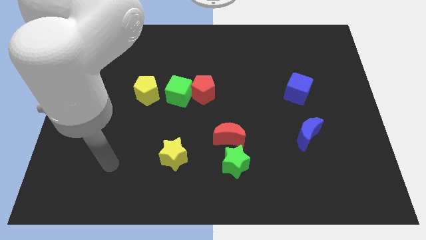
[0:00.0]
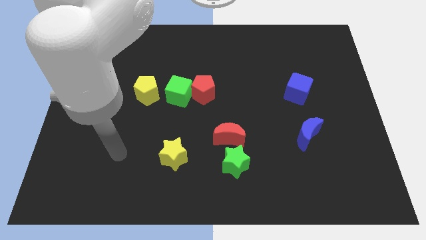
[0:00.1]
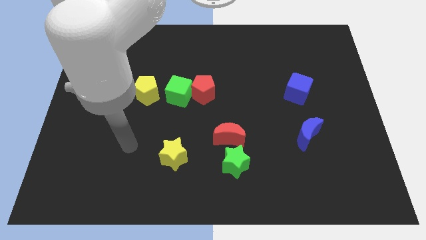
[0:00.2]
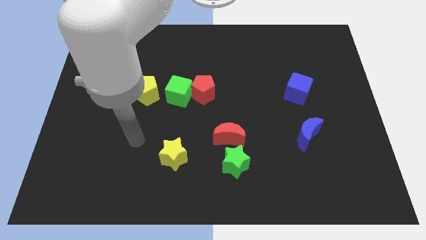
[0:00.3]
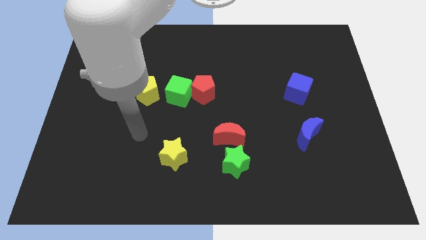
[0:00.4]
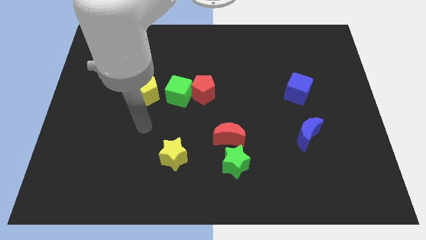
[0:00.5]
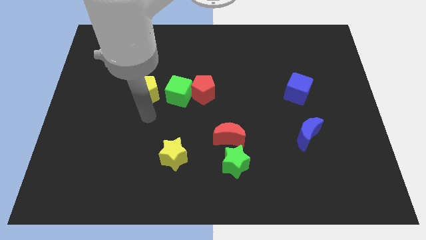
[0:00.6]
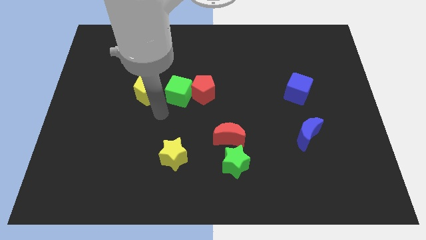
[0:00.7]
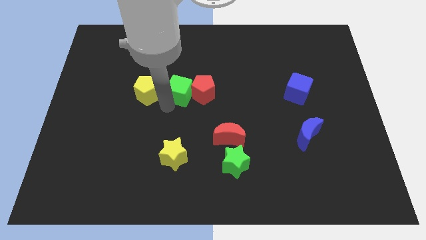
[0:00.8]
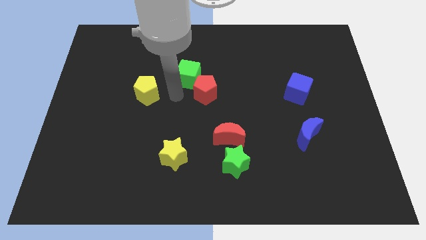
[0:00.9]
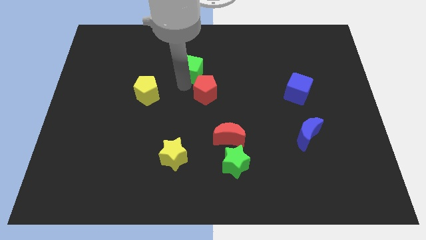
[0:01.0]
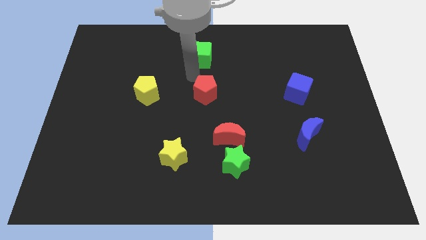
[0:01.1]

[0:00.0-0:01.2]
separate the red pentagon from the green cube

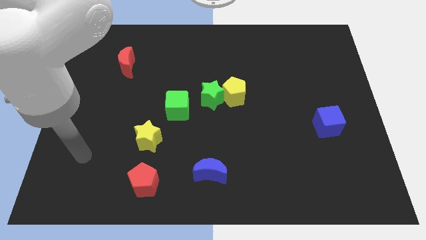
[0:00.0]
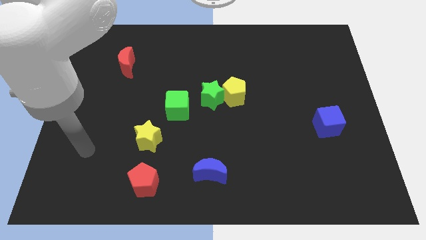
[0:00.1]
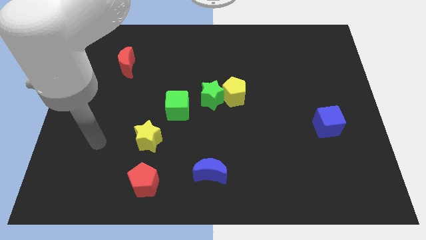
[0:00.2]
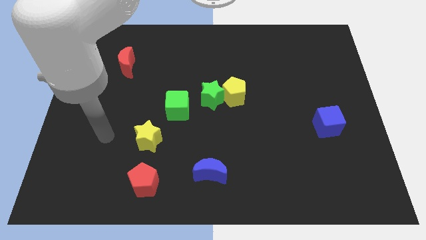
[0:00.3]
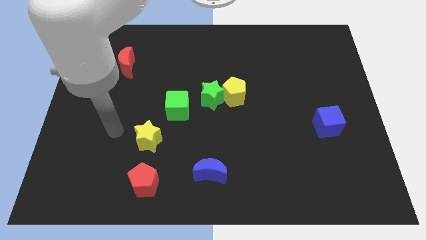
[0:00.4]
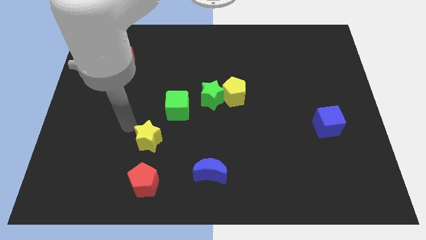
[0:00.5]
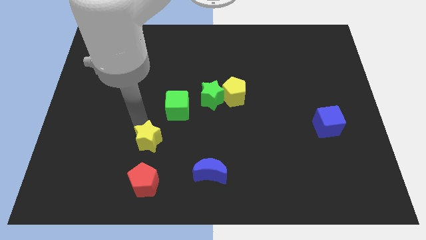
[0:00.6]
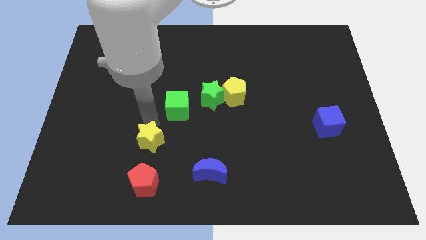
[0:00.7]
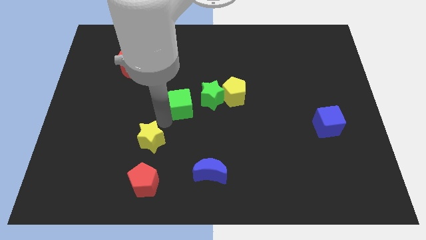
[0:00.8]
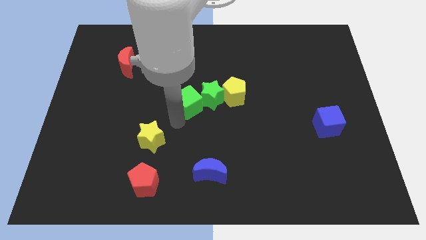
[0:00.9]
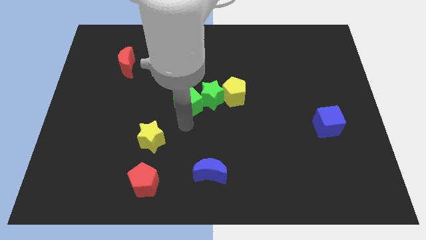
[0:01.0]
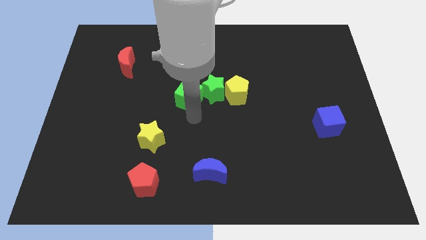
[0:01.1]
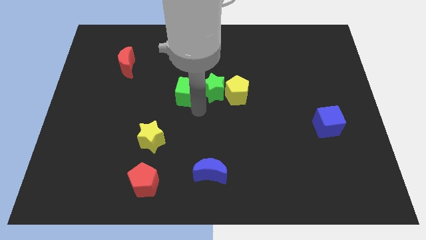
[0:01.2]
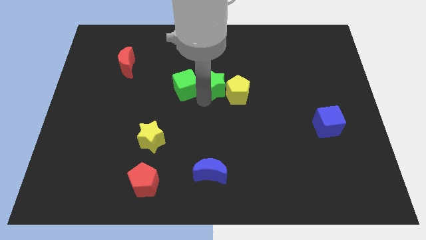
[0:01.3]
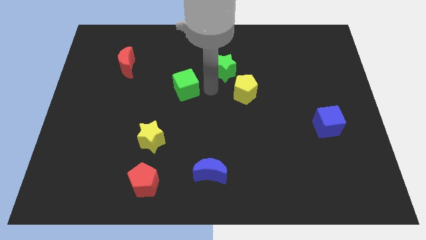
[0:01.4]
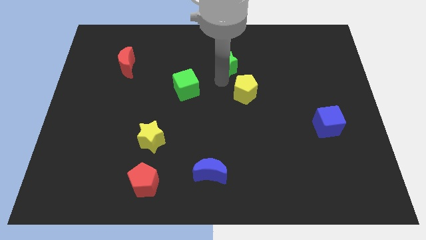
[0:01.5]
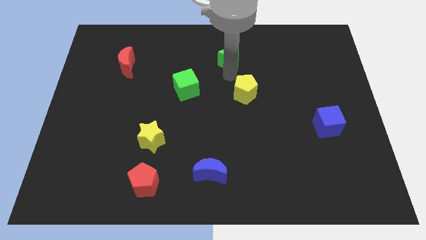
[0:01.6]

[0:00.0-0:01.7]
separate the yellow pentagon from the green star

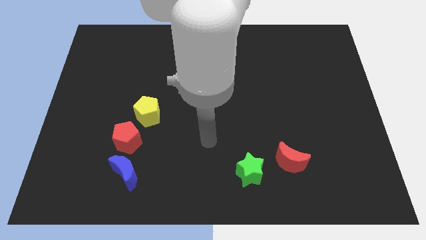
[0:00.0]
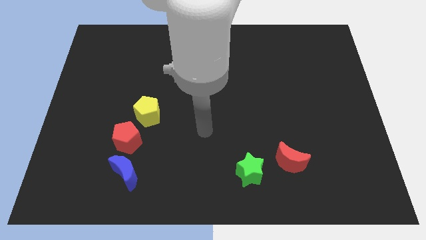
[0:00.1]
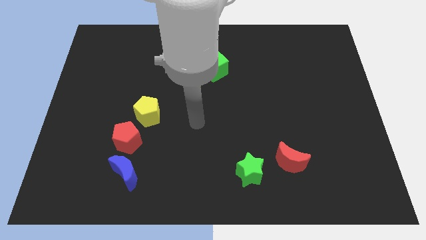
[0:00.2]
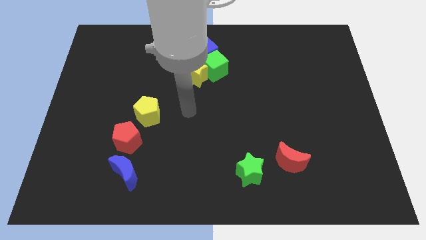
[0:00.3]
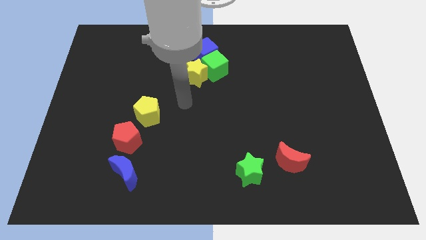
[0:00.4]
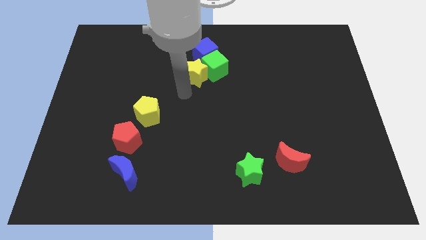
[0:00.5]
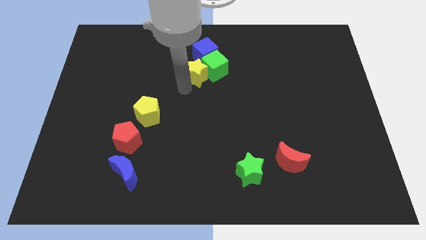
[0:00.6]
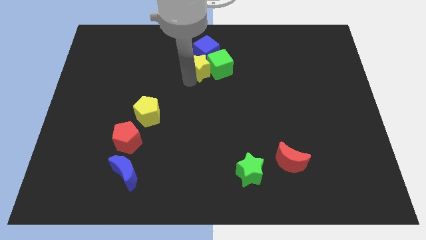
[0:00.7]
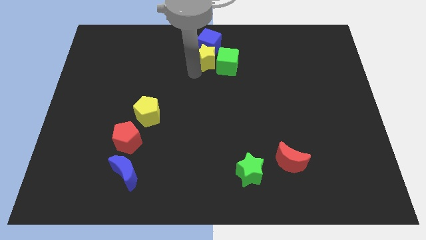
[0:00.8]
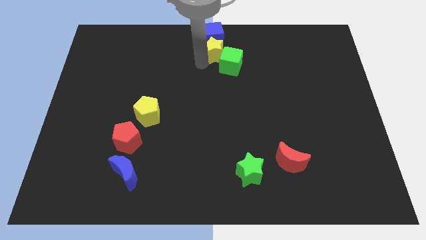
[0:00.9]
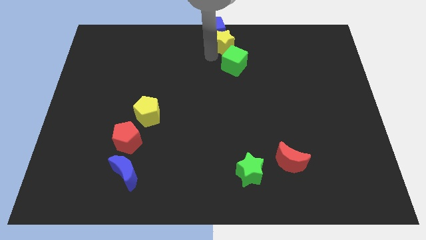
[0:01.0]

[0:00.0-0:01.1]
pull the green cube apart from the blue cube and yellow star

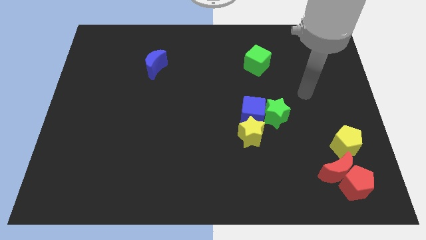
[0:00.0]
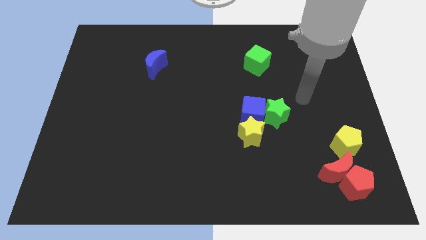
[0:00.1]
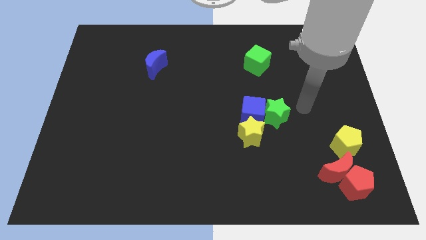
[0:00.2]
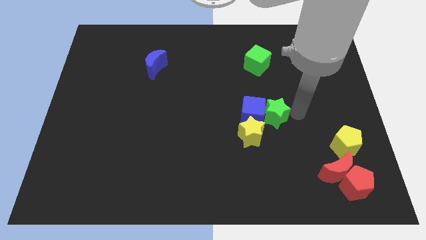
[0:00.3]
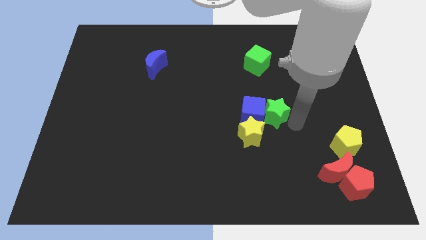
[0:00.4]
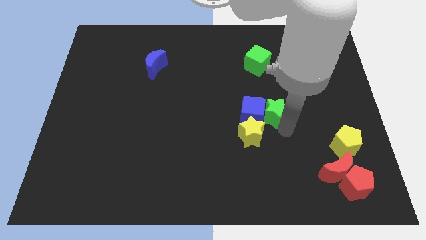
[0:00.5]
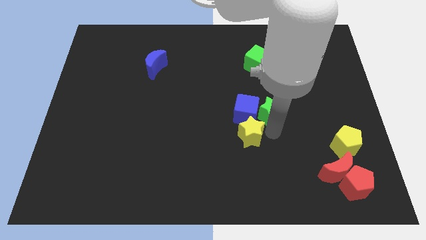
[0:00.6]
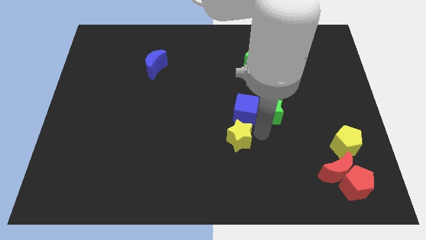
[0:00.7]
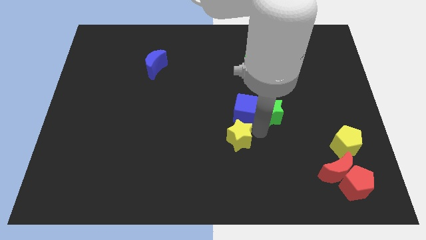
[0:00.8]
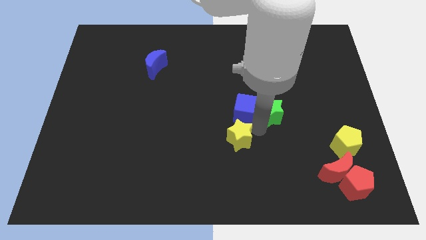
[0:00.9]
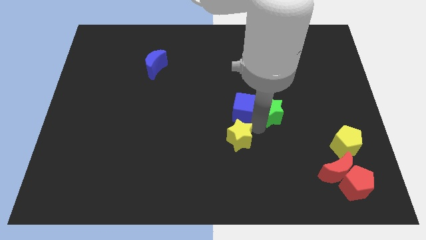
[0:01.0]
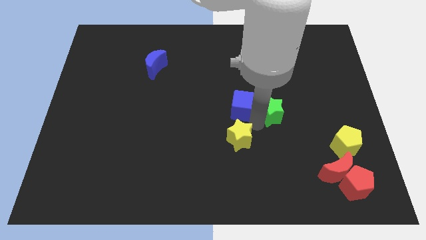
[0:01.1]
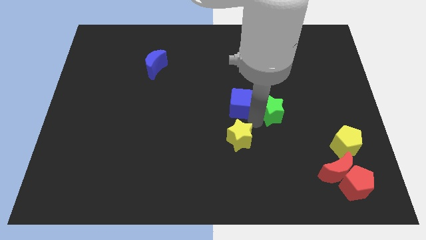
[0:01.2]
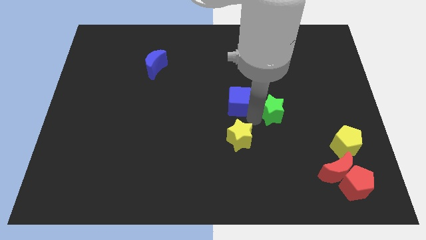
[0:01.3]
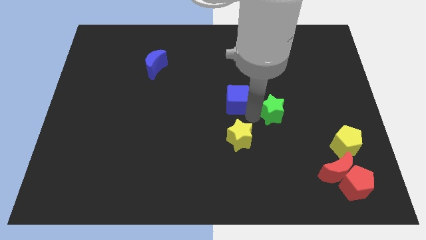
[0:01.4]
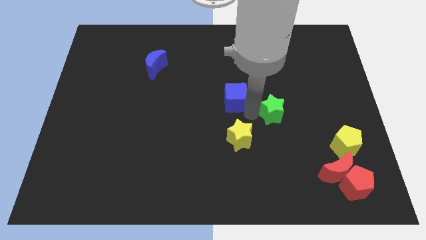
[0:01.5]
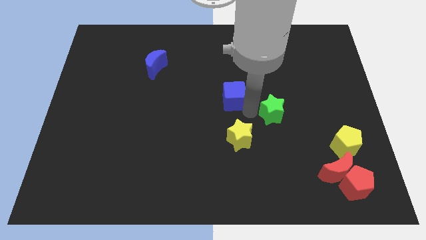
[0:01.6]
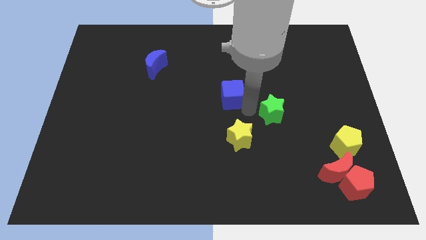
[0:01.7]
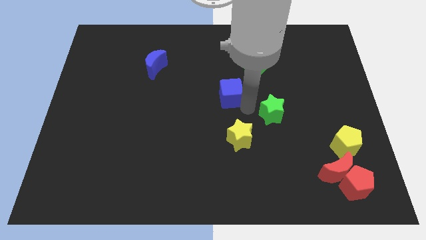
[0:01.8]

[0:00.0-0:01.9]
separate the blue cube from the green star and yellow star

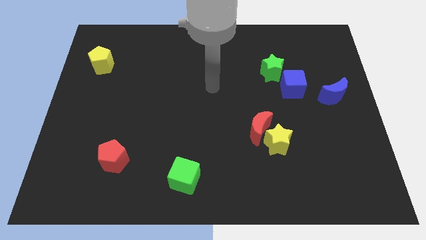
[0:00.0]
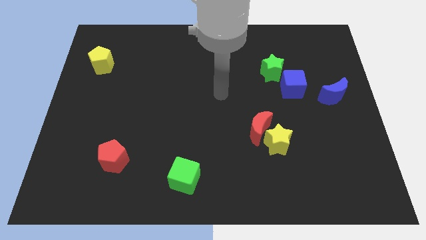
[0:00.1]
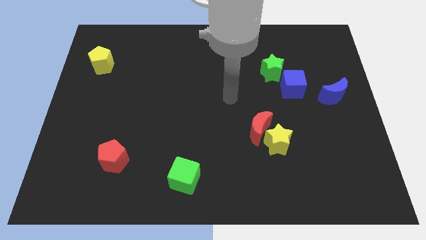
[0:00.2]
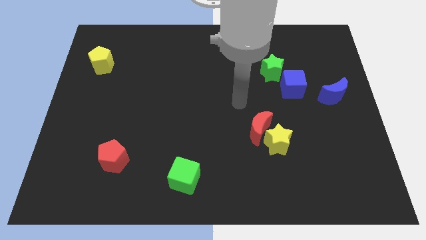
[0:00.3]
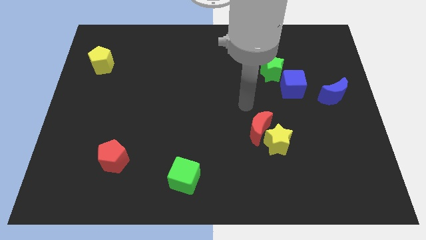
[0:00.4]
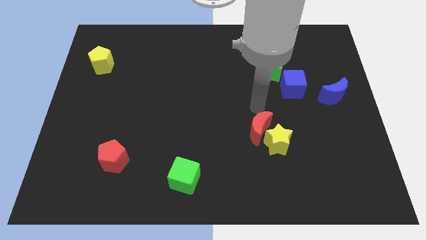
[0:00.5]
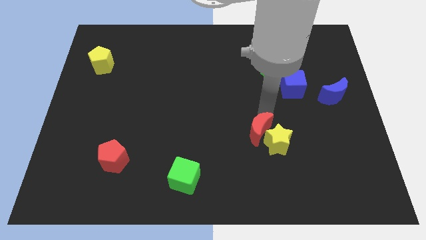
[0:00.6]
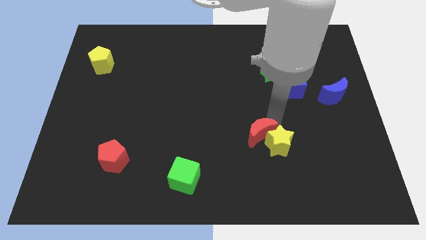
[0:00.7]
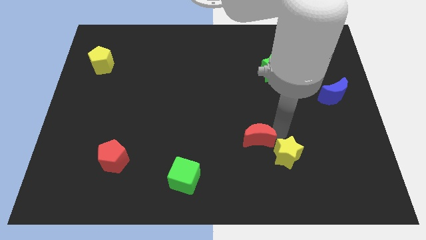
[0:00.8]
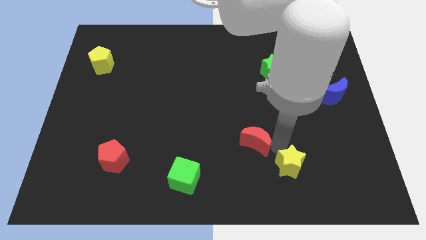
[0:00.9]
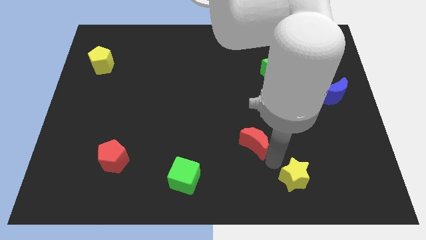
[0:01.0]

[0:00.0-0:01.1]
pull the red moon apart from the yellow star

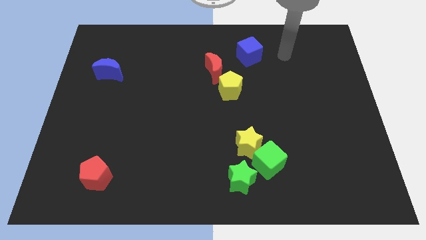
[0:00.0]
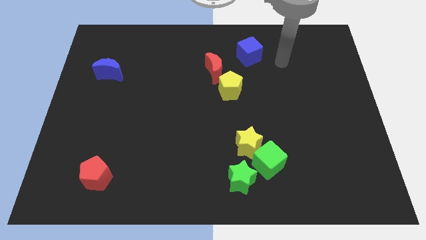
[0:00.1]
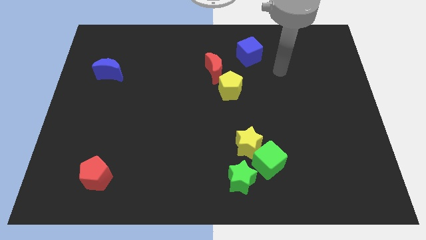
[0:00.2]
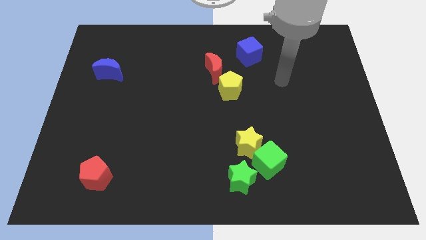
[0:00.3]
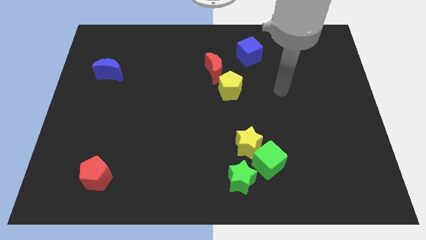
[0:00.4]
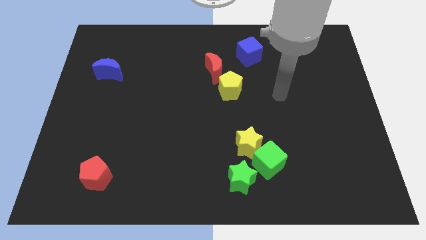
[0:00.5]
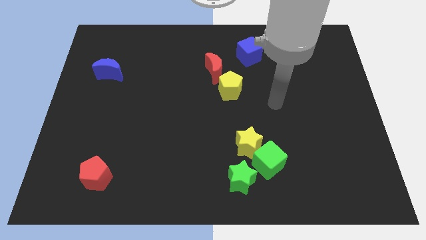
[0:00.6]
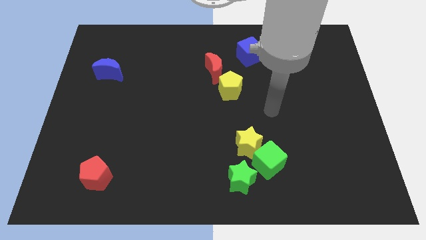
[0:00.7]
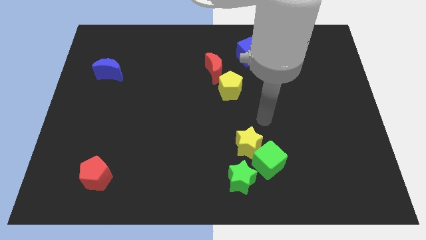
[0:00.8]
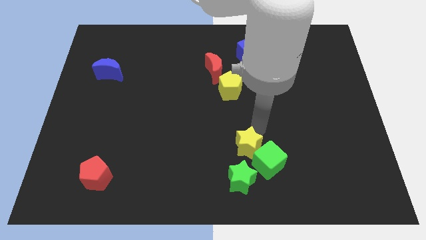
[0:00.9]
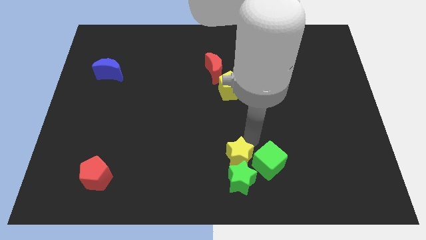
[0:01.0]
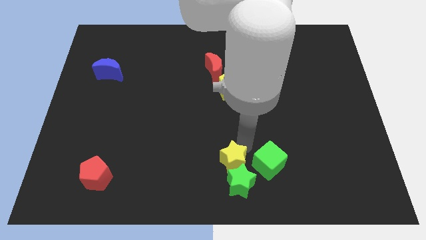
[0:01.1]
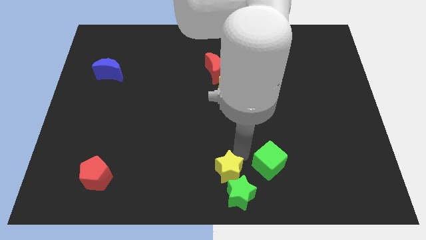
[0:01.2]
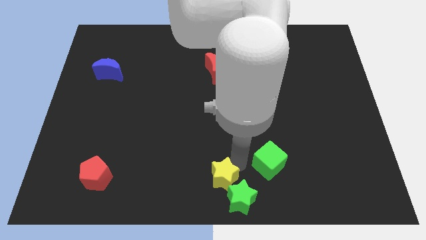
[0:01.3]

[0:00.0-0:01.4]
move the green cube away from the yellow star and green star

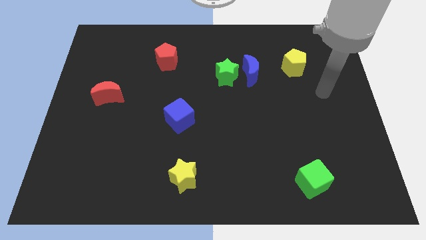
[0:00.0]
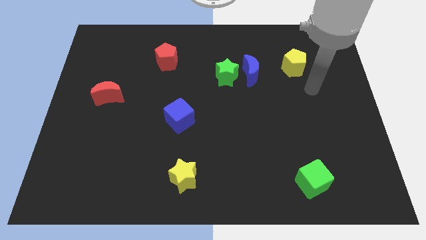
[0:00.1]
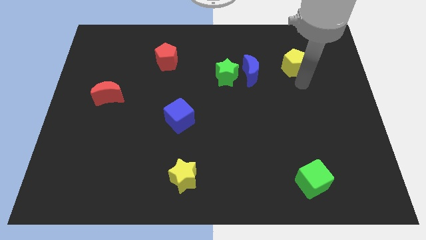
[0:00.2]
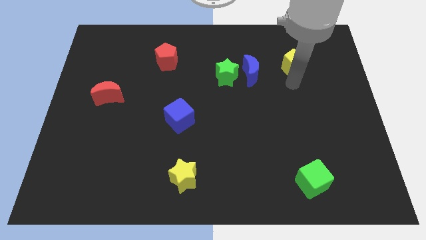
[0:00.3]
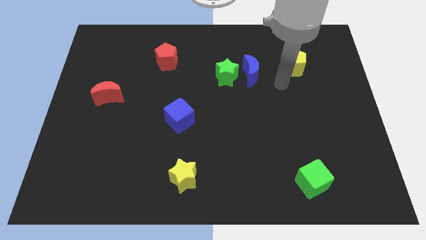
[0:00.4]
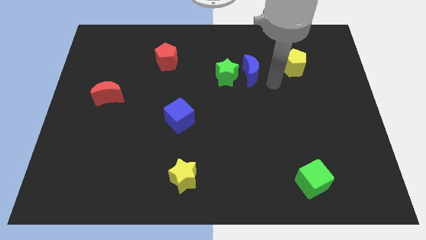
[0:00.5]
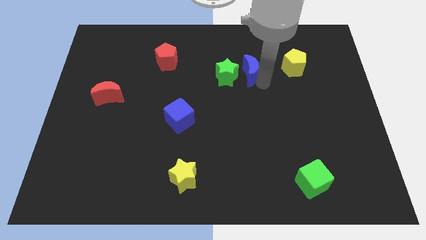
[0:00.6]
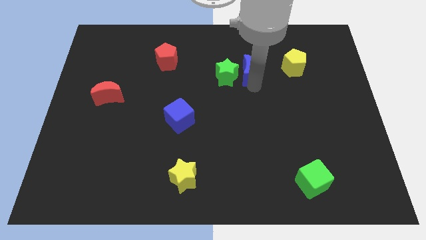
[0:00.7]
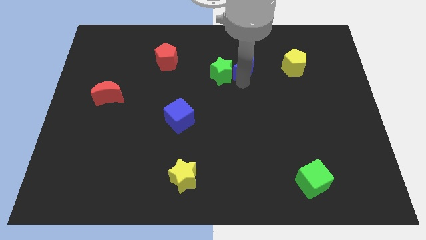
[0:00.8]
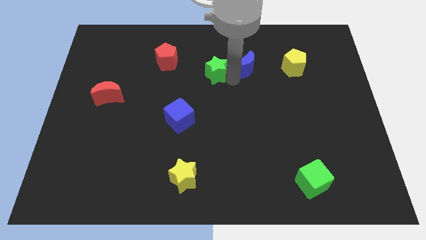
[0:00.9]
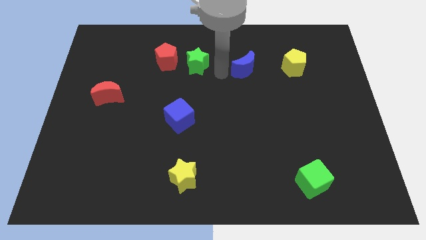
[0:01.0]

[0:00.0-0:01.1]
separate the blue moon from the green star
